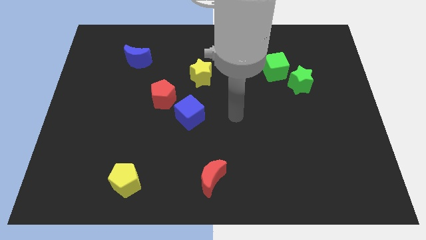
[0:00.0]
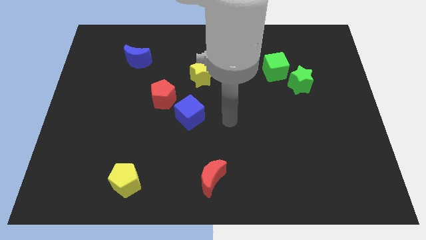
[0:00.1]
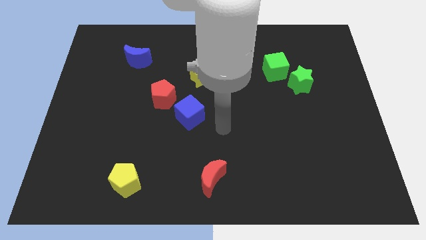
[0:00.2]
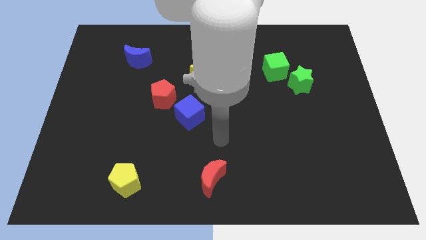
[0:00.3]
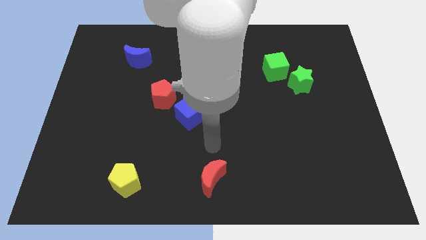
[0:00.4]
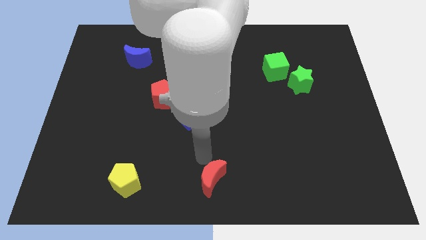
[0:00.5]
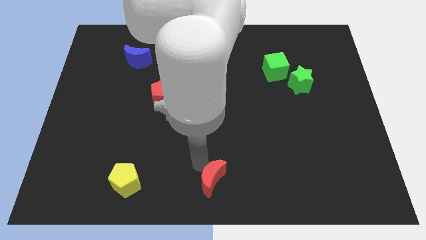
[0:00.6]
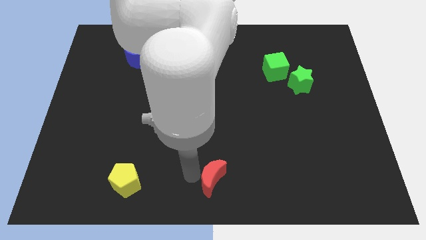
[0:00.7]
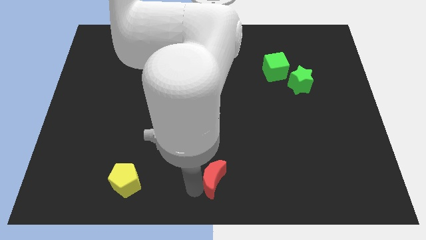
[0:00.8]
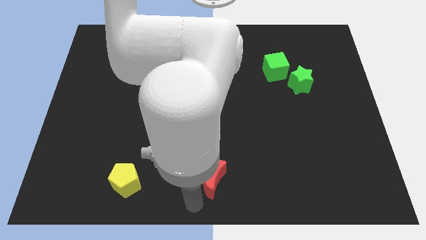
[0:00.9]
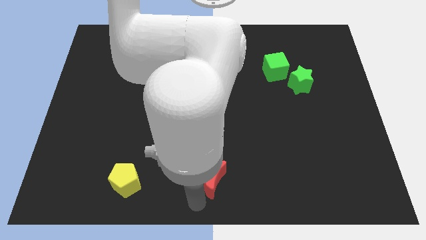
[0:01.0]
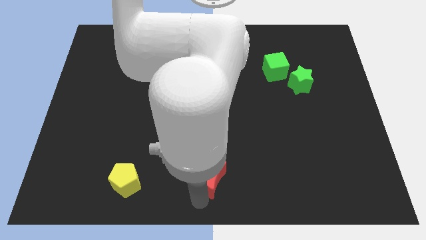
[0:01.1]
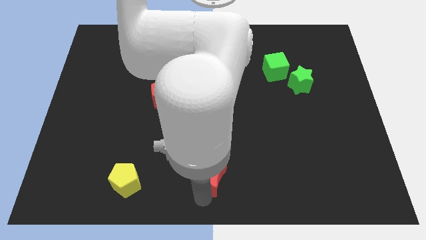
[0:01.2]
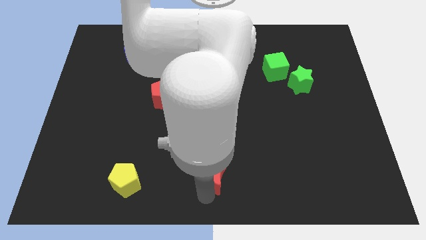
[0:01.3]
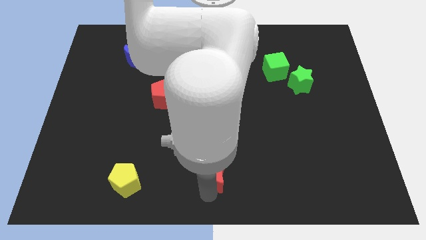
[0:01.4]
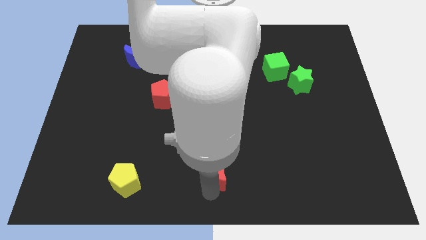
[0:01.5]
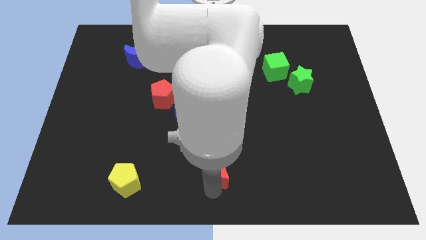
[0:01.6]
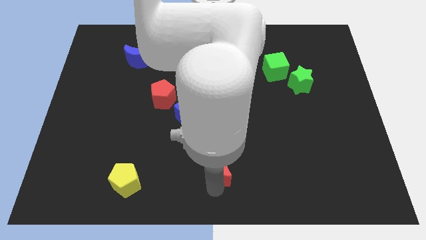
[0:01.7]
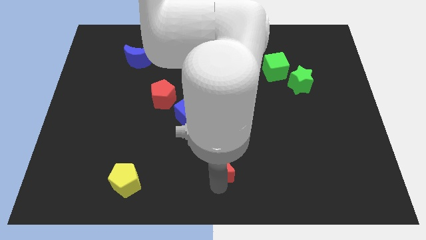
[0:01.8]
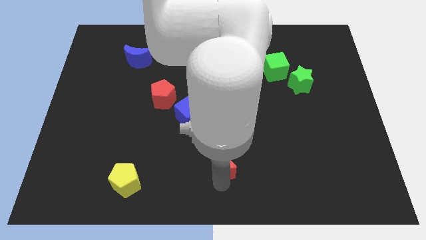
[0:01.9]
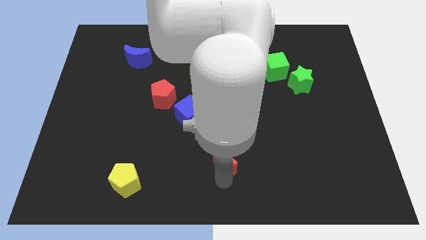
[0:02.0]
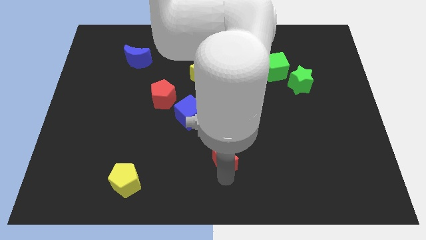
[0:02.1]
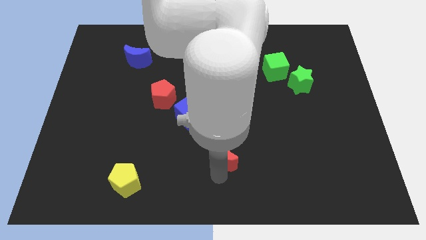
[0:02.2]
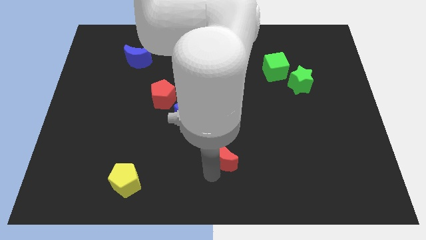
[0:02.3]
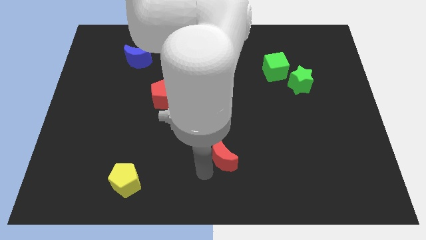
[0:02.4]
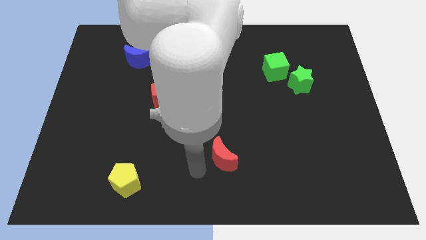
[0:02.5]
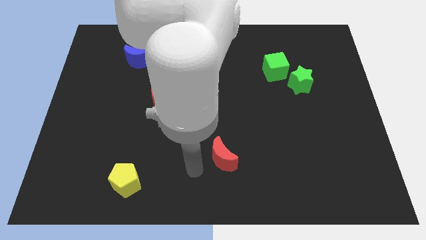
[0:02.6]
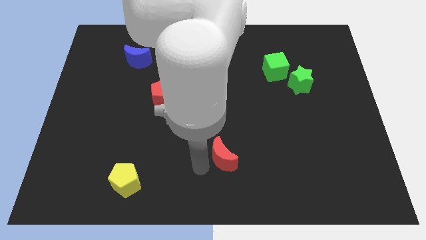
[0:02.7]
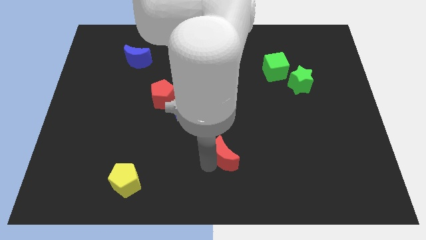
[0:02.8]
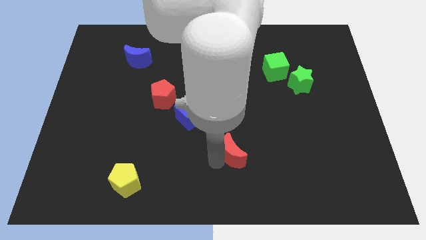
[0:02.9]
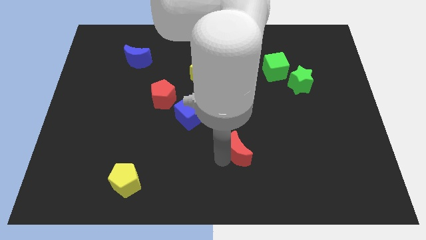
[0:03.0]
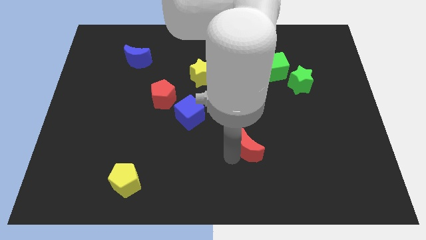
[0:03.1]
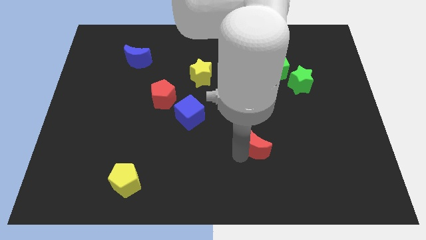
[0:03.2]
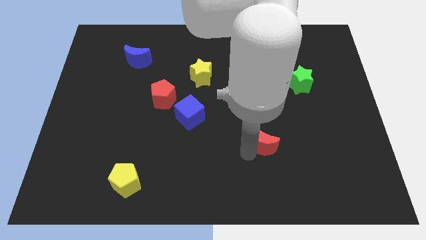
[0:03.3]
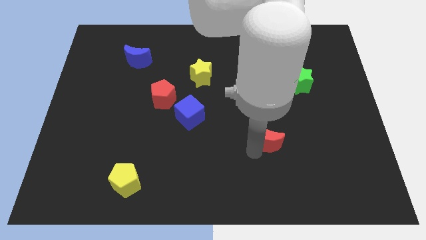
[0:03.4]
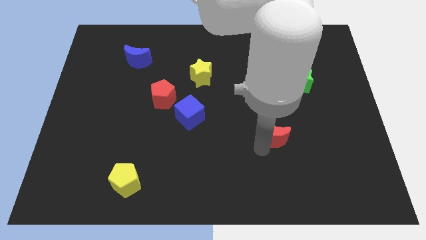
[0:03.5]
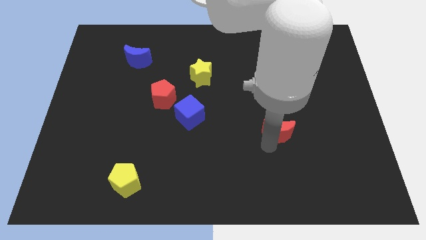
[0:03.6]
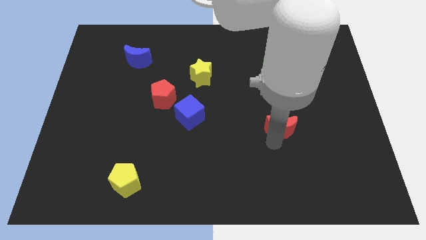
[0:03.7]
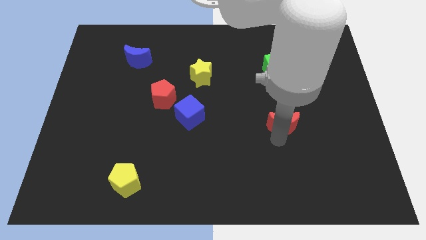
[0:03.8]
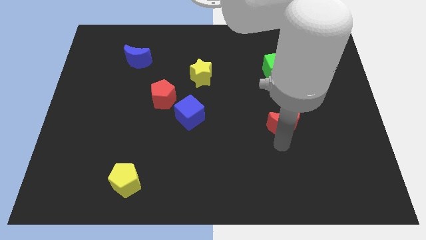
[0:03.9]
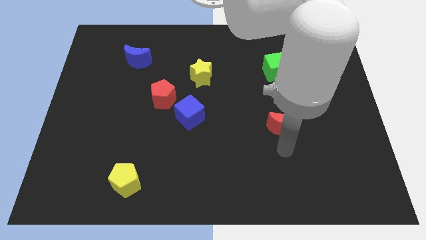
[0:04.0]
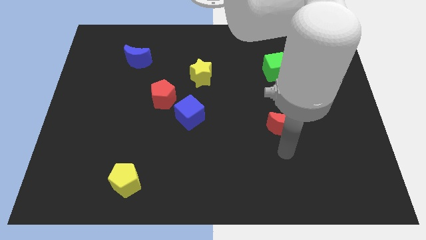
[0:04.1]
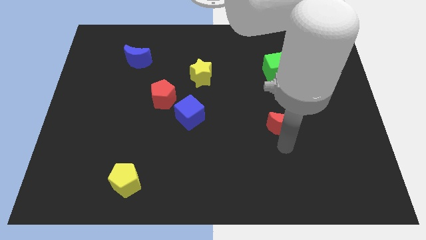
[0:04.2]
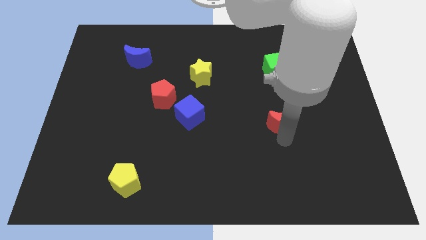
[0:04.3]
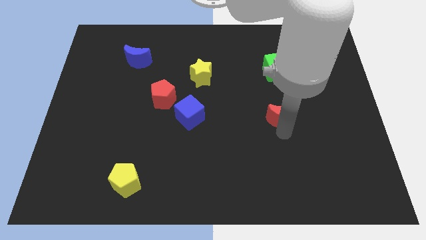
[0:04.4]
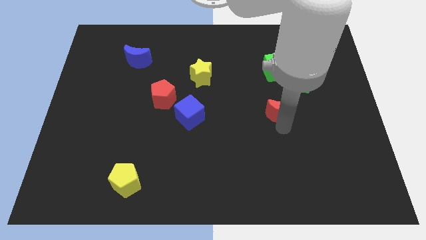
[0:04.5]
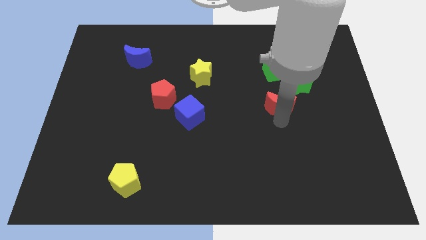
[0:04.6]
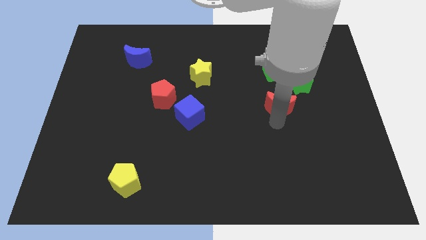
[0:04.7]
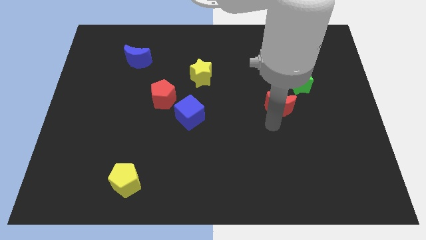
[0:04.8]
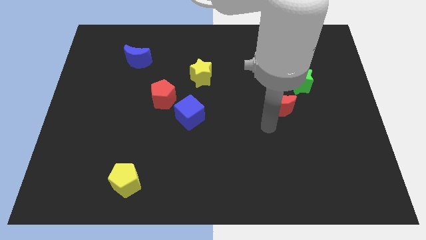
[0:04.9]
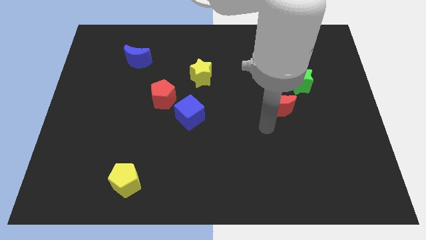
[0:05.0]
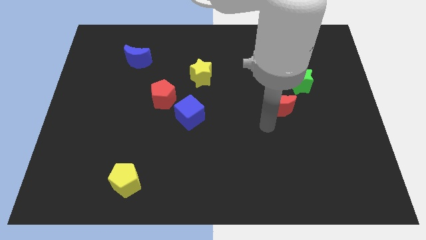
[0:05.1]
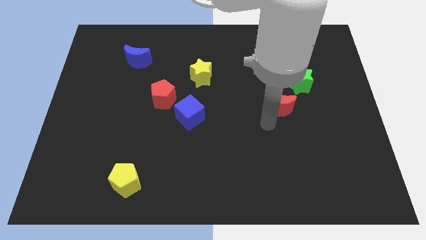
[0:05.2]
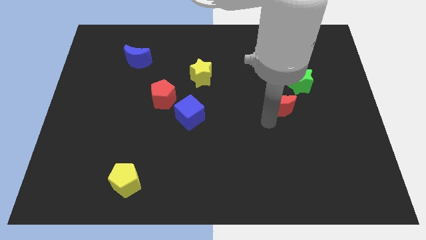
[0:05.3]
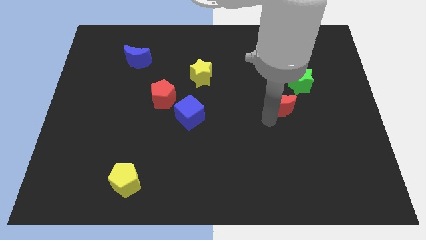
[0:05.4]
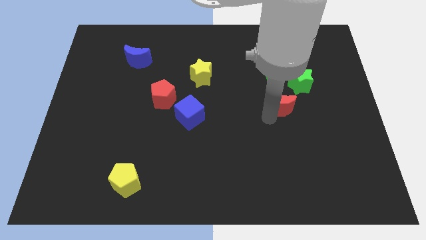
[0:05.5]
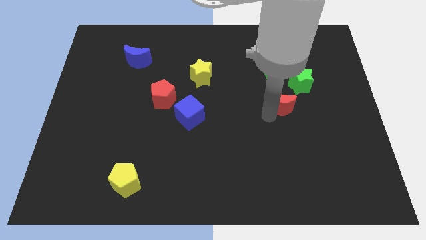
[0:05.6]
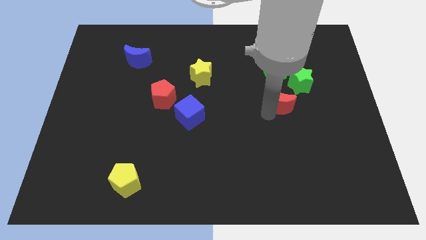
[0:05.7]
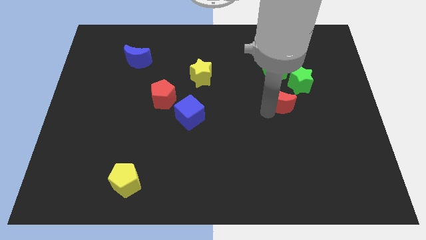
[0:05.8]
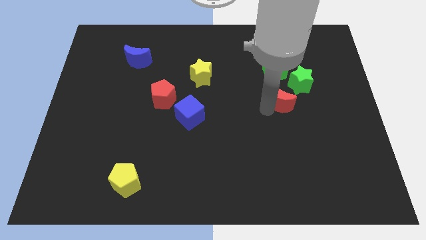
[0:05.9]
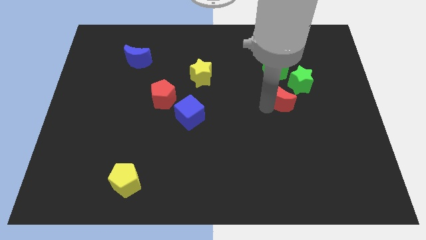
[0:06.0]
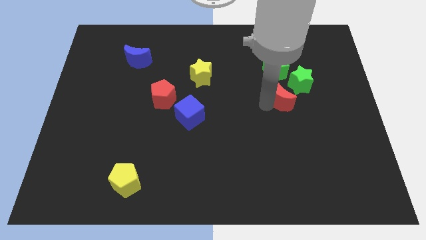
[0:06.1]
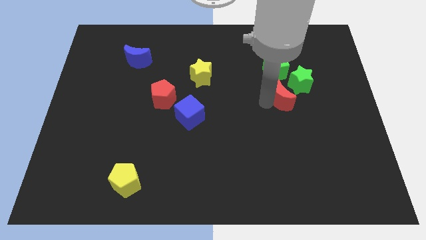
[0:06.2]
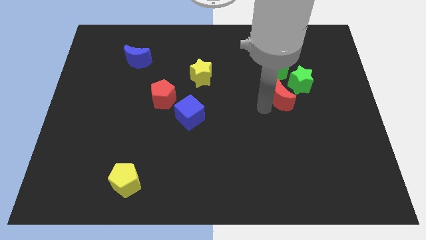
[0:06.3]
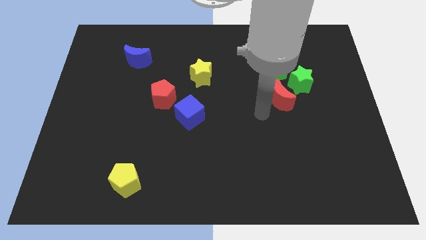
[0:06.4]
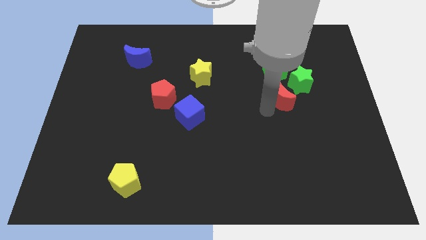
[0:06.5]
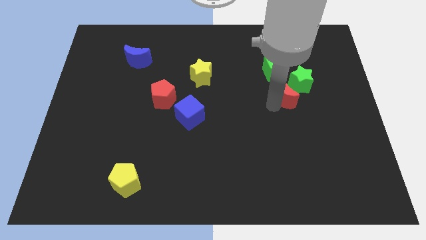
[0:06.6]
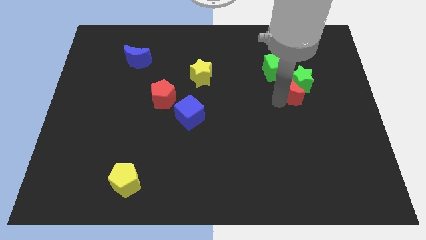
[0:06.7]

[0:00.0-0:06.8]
slide the red moon close to the green star

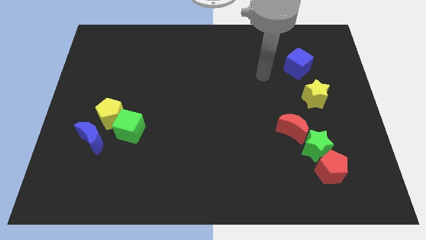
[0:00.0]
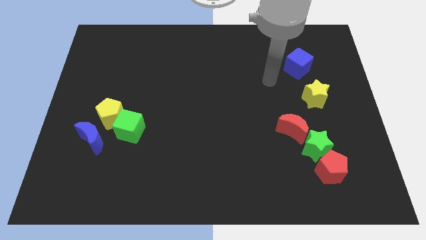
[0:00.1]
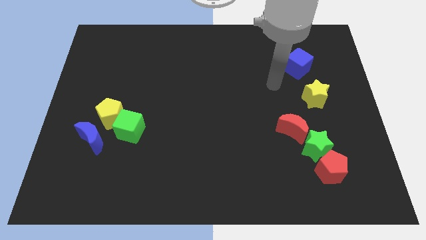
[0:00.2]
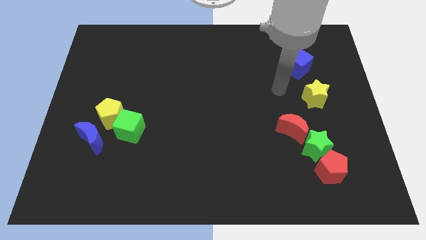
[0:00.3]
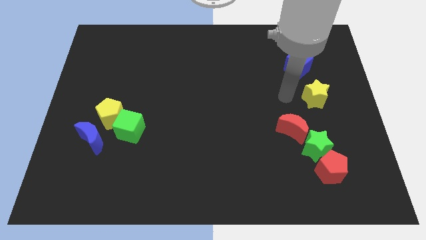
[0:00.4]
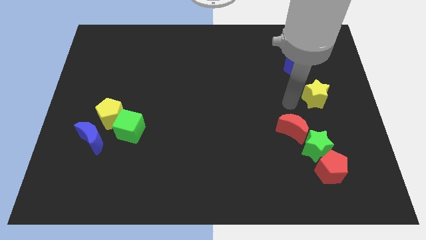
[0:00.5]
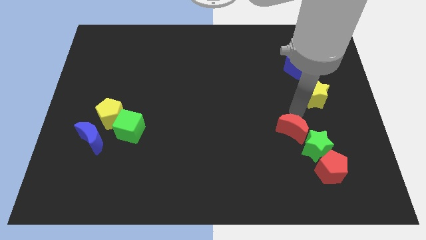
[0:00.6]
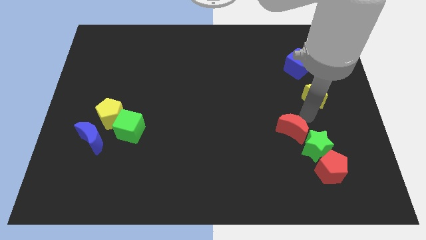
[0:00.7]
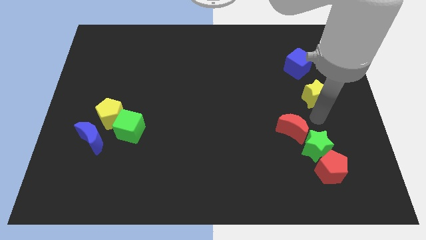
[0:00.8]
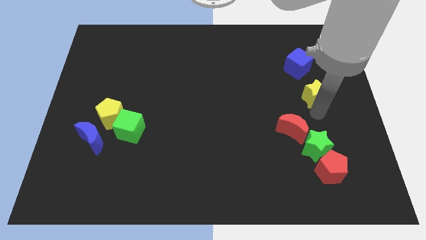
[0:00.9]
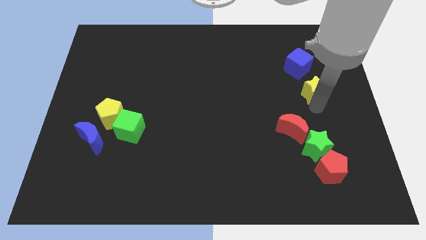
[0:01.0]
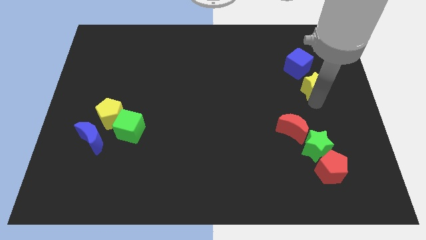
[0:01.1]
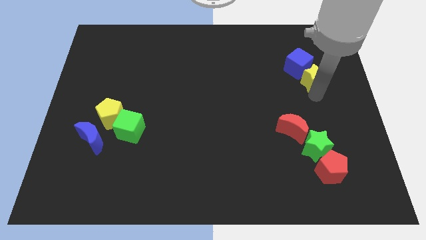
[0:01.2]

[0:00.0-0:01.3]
push the yellow star next to the blue cube
